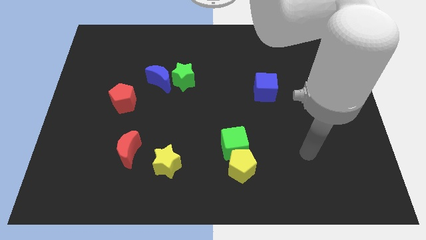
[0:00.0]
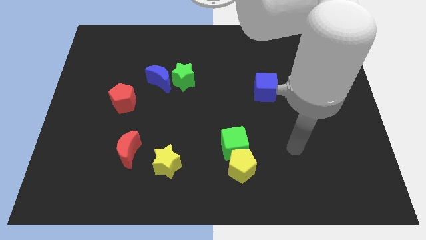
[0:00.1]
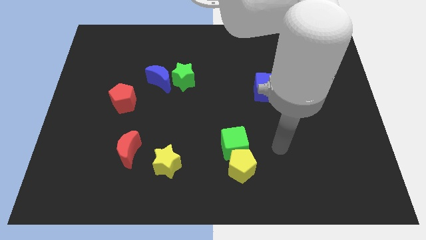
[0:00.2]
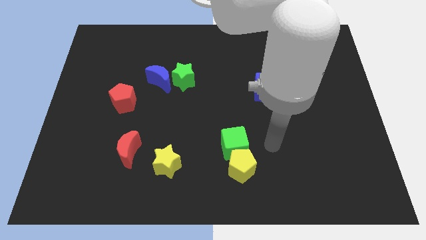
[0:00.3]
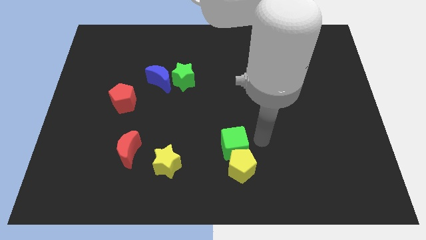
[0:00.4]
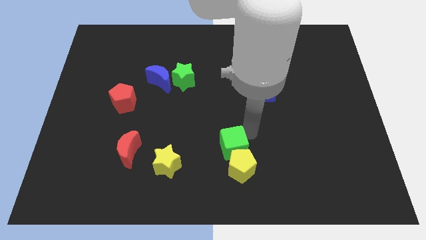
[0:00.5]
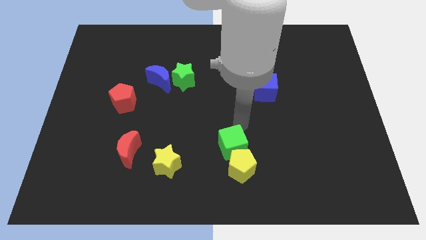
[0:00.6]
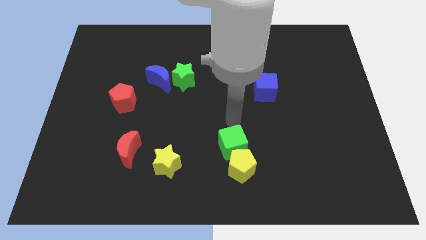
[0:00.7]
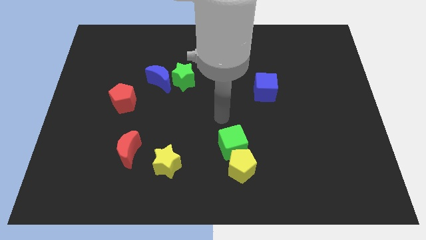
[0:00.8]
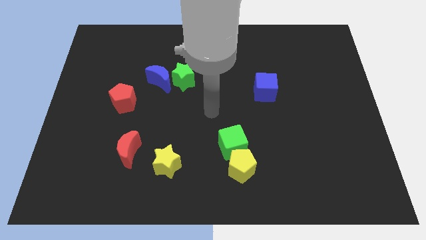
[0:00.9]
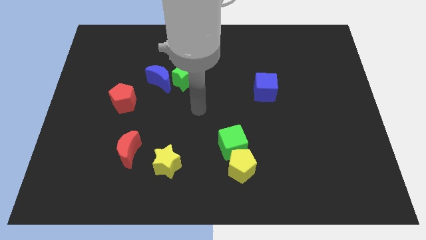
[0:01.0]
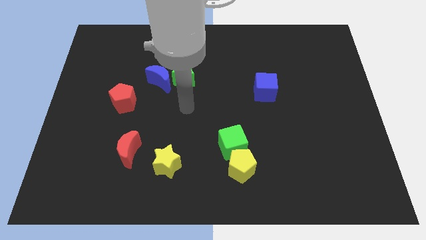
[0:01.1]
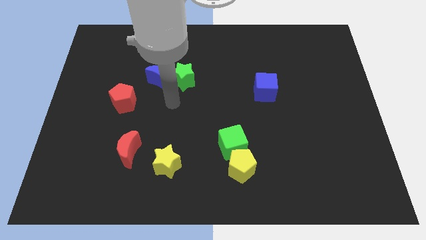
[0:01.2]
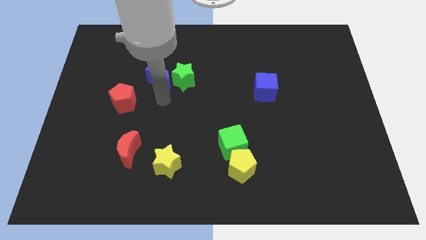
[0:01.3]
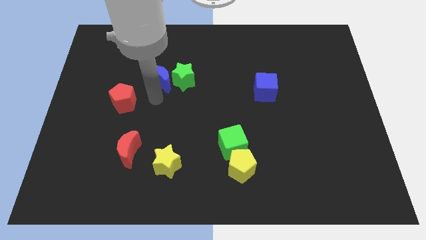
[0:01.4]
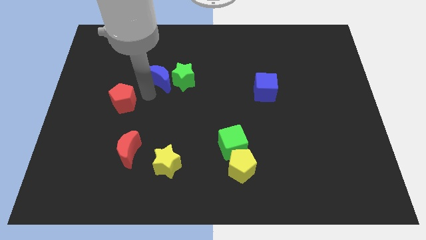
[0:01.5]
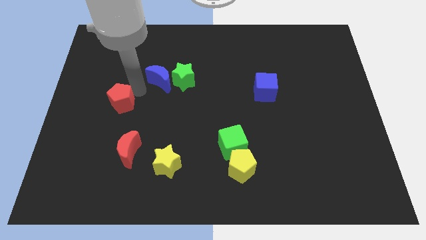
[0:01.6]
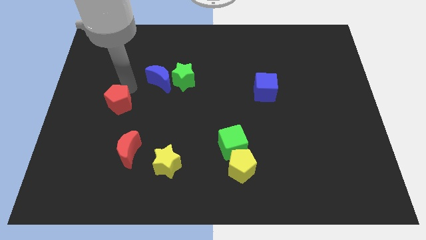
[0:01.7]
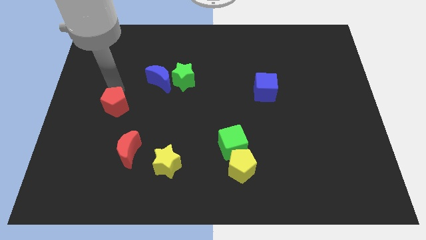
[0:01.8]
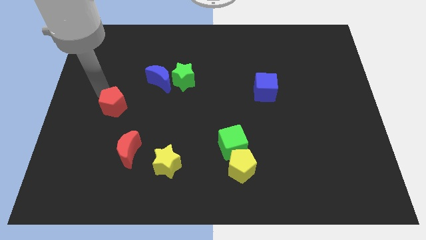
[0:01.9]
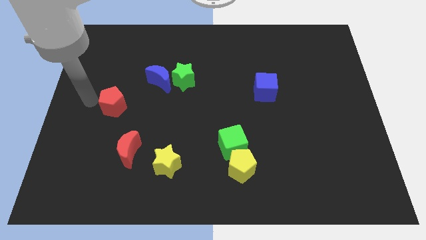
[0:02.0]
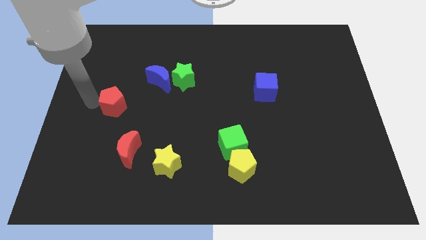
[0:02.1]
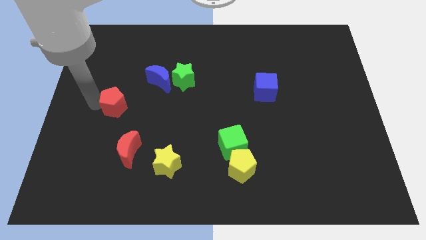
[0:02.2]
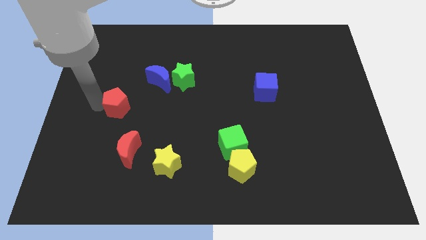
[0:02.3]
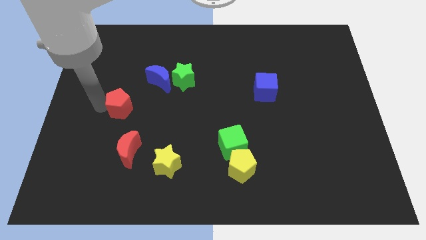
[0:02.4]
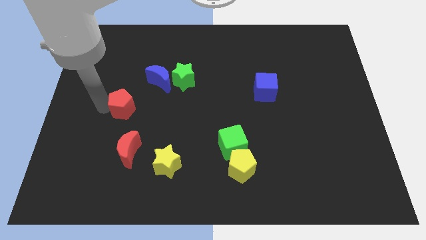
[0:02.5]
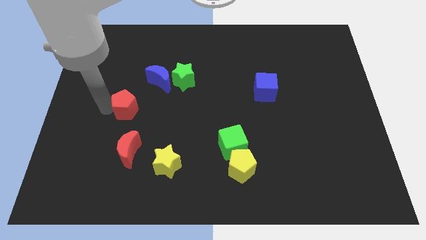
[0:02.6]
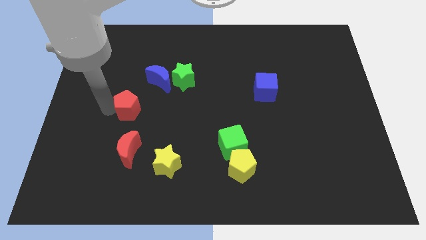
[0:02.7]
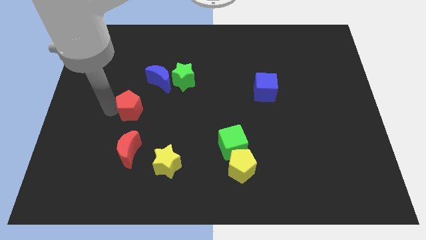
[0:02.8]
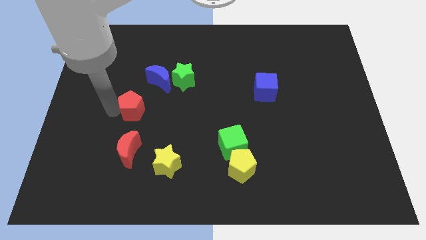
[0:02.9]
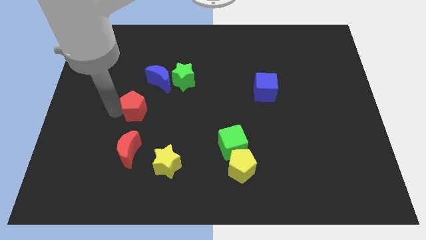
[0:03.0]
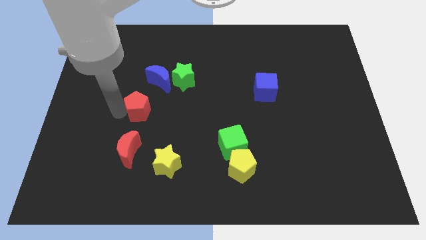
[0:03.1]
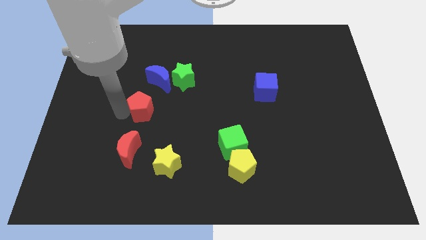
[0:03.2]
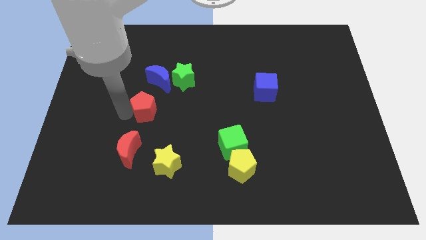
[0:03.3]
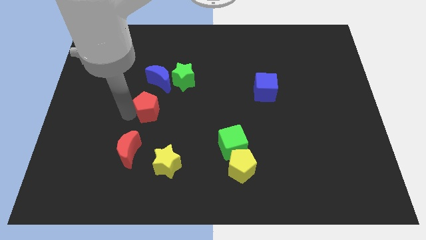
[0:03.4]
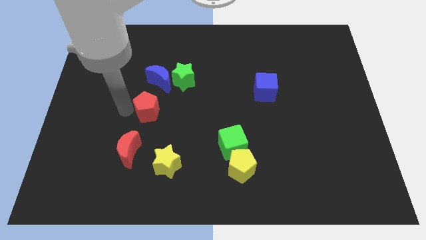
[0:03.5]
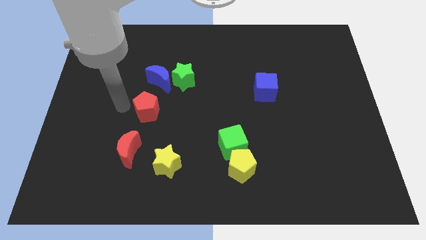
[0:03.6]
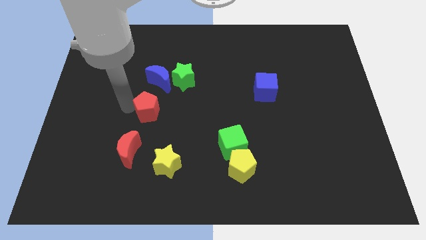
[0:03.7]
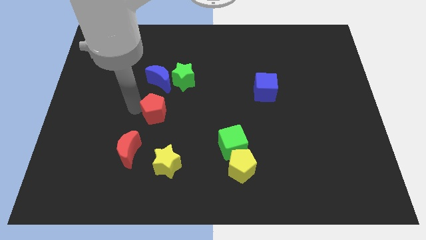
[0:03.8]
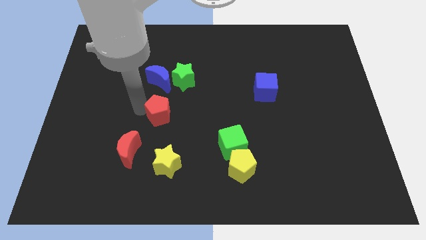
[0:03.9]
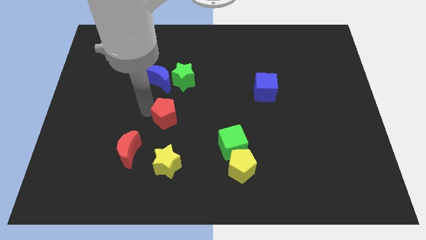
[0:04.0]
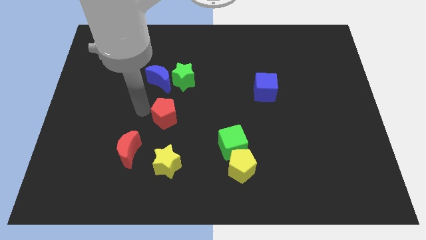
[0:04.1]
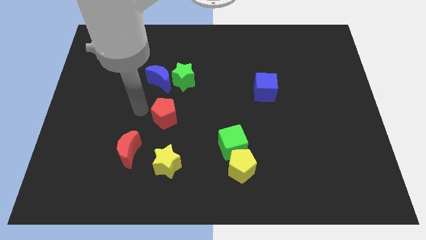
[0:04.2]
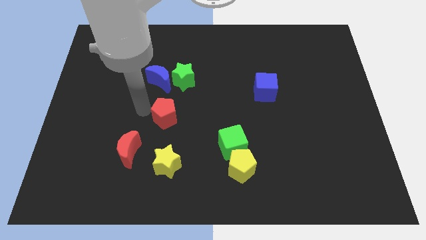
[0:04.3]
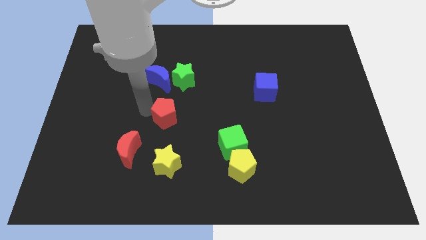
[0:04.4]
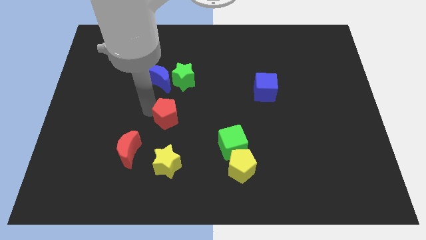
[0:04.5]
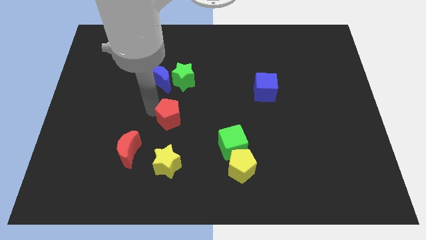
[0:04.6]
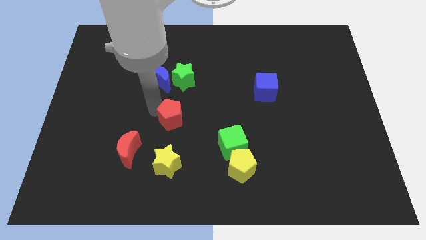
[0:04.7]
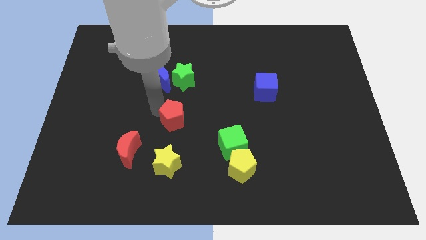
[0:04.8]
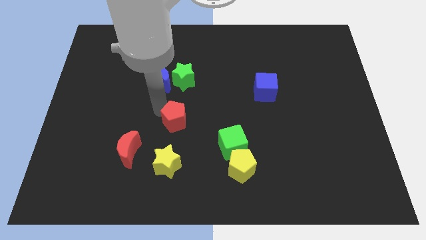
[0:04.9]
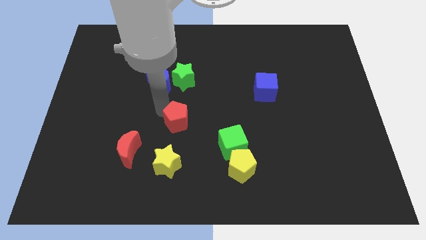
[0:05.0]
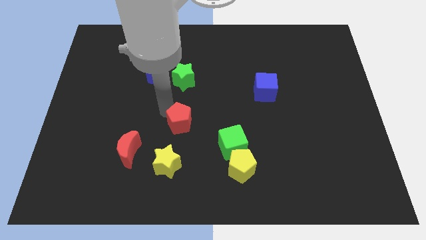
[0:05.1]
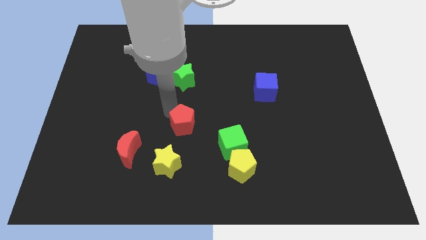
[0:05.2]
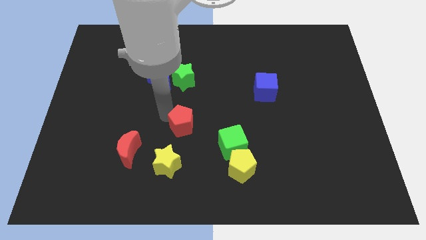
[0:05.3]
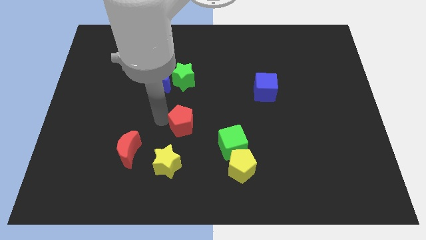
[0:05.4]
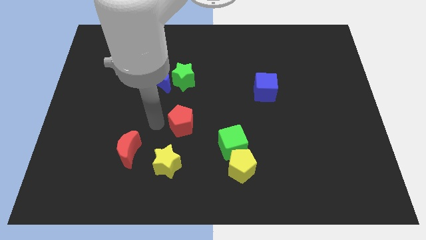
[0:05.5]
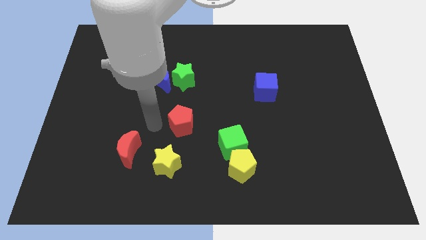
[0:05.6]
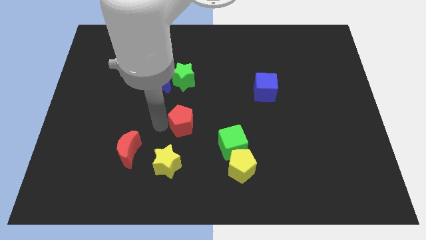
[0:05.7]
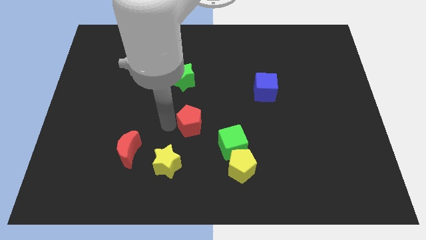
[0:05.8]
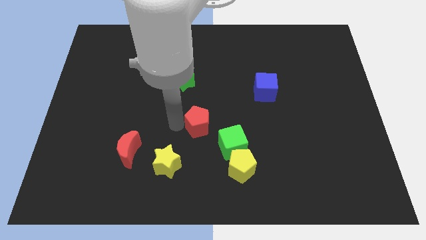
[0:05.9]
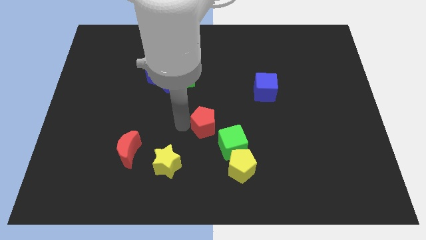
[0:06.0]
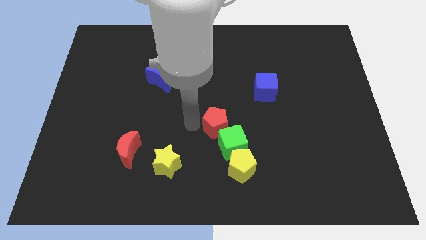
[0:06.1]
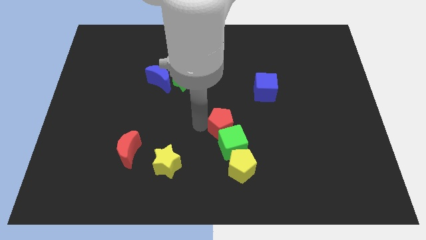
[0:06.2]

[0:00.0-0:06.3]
push the red pentagon to the top of the yellow pentagon

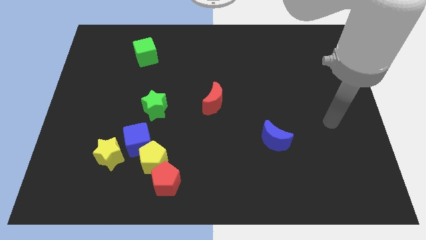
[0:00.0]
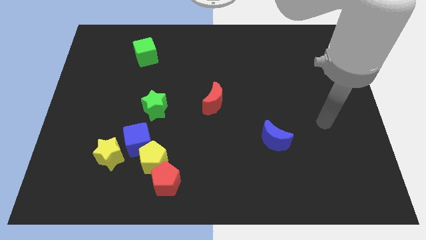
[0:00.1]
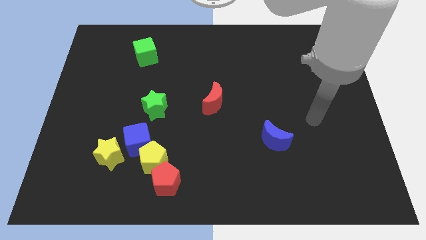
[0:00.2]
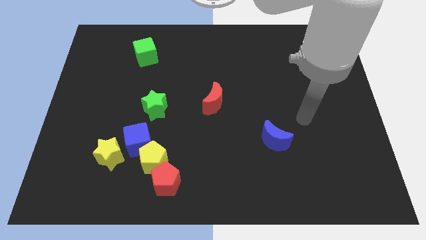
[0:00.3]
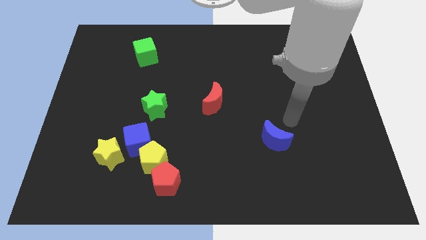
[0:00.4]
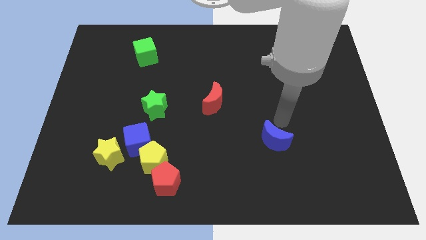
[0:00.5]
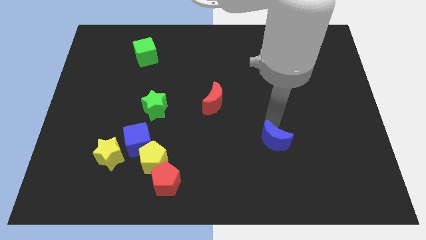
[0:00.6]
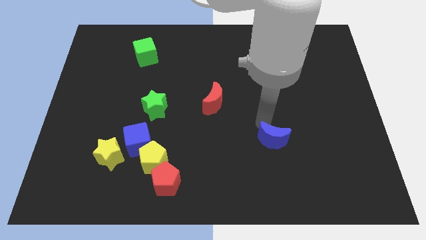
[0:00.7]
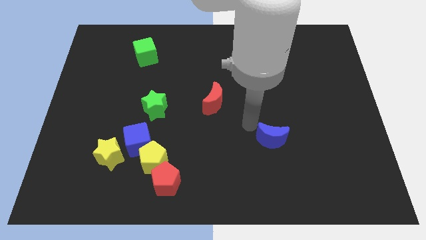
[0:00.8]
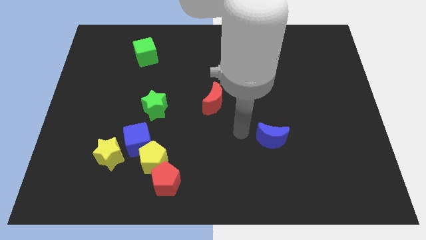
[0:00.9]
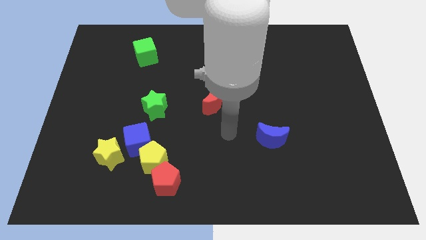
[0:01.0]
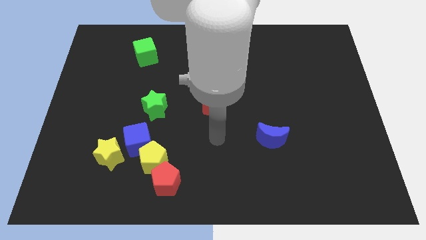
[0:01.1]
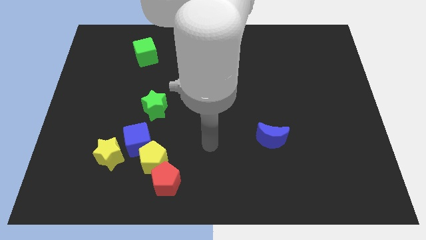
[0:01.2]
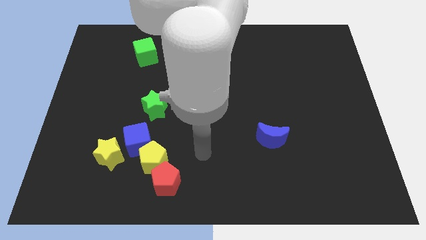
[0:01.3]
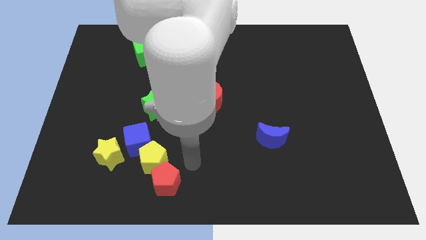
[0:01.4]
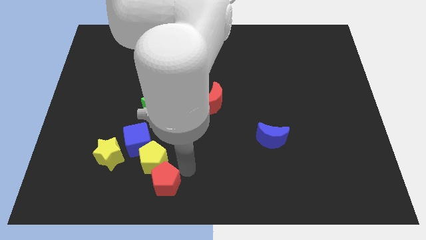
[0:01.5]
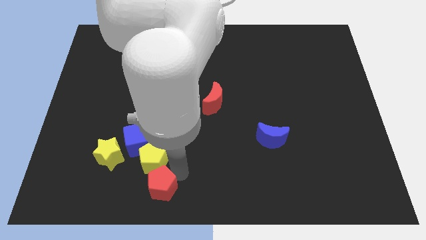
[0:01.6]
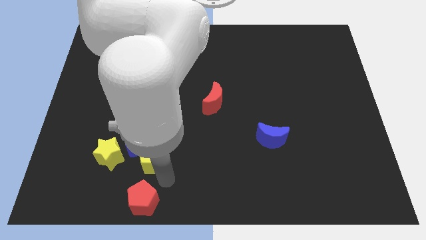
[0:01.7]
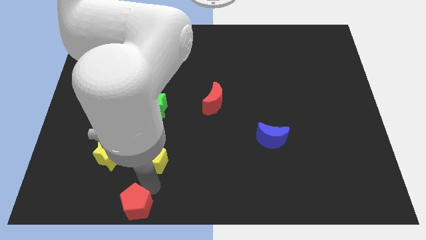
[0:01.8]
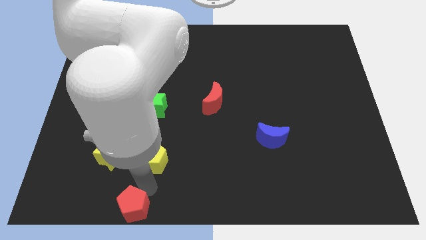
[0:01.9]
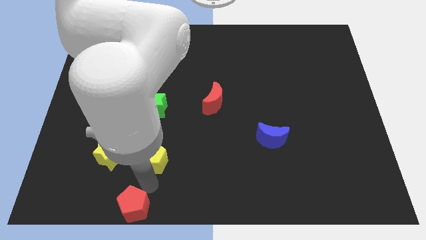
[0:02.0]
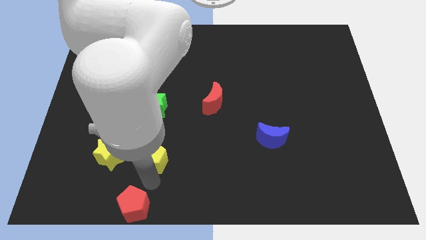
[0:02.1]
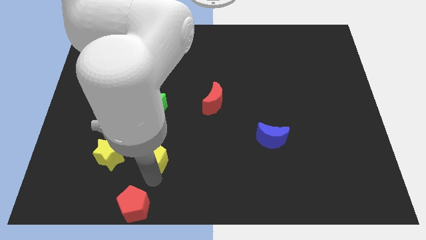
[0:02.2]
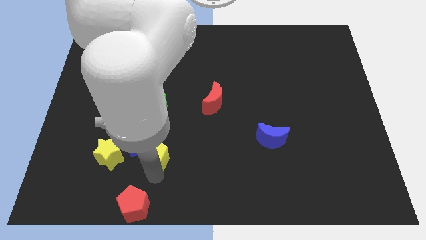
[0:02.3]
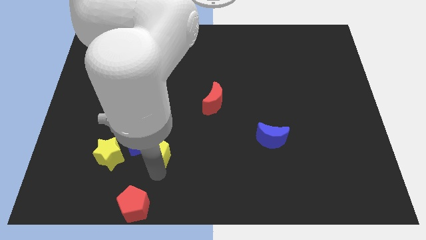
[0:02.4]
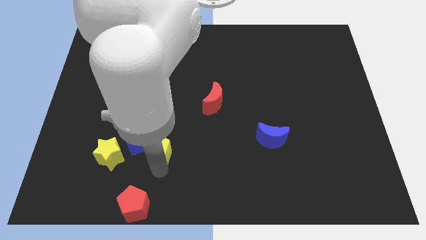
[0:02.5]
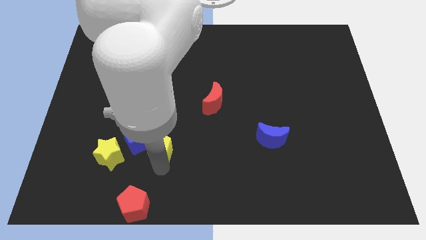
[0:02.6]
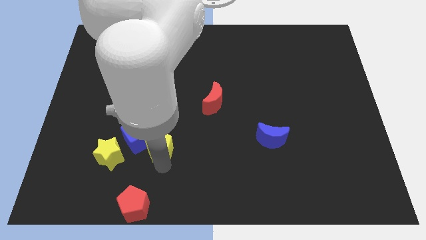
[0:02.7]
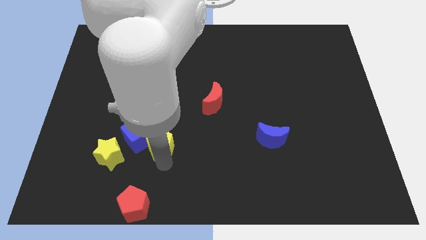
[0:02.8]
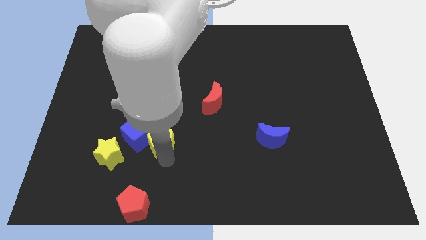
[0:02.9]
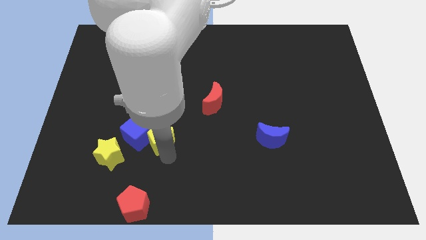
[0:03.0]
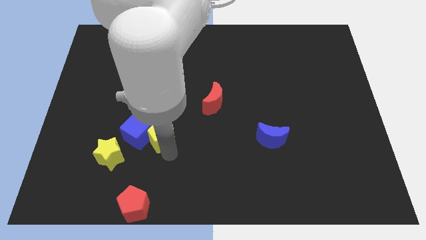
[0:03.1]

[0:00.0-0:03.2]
move the yellow pentagon to the top right of the blue cube
